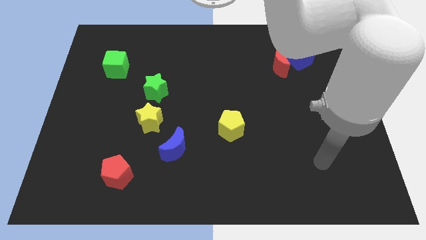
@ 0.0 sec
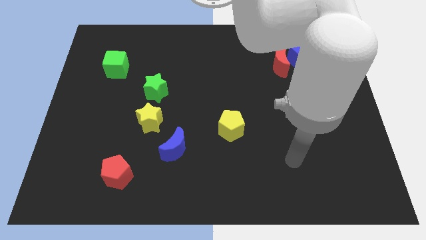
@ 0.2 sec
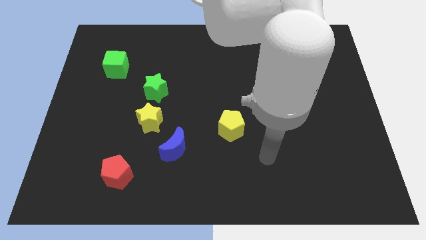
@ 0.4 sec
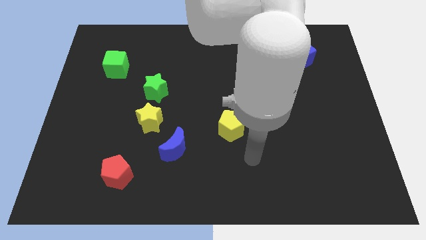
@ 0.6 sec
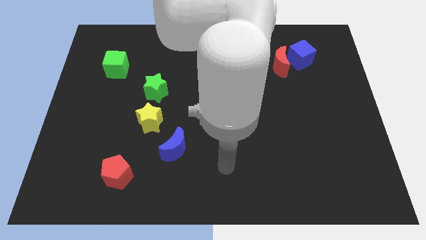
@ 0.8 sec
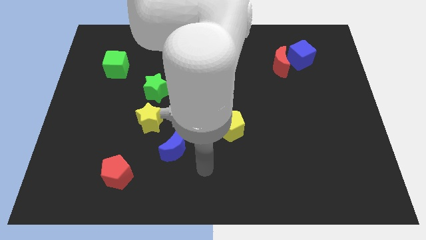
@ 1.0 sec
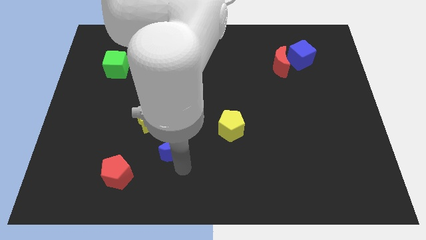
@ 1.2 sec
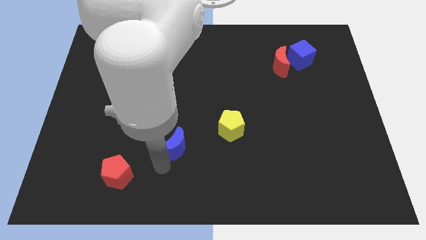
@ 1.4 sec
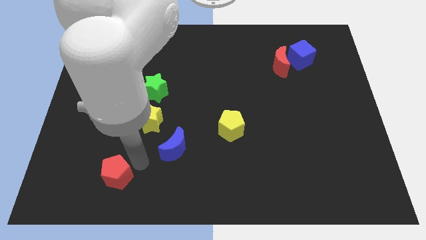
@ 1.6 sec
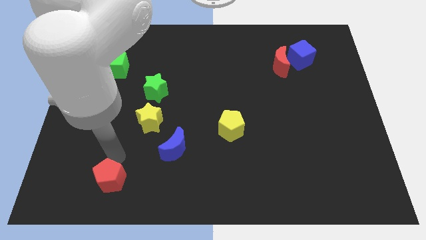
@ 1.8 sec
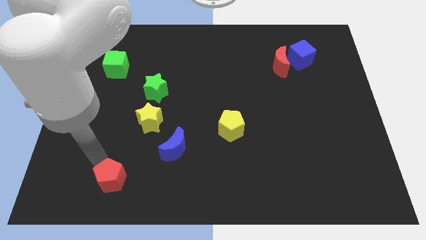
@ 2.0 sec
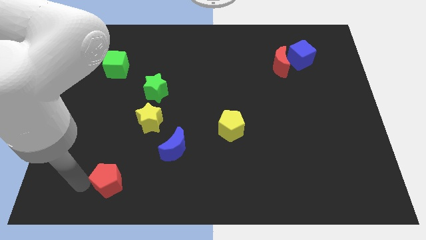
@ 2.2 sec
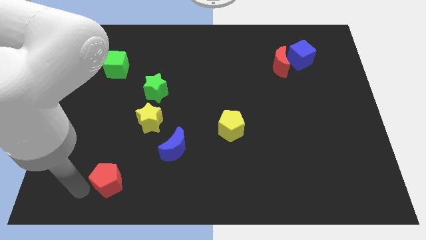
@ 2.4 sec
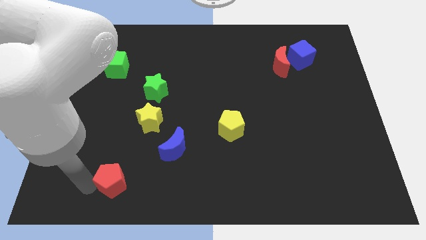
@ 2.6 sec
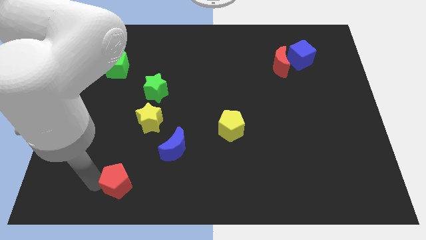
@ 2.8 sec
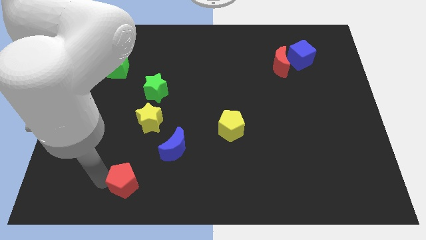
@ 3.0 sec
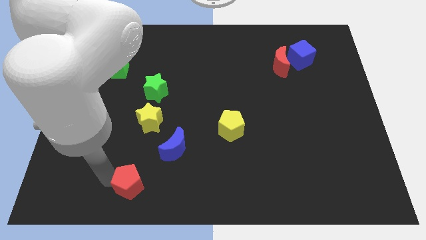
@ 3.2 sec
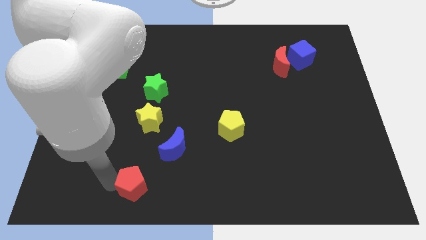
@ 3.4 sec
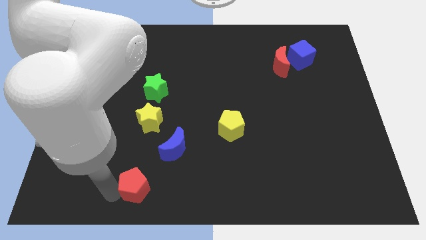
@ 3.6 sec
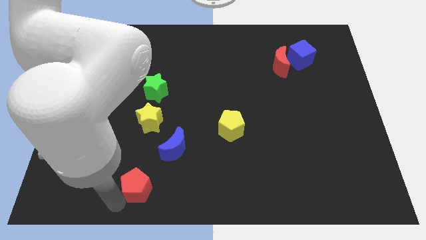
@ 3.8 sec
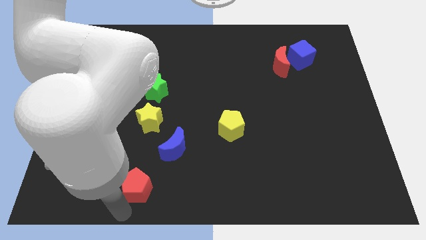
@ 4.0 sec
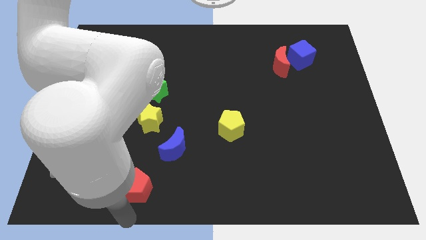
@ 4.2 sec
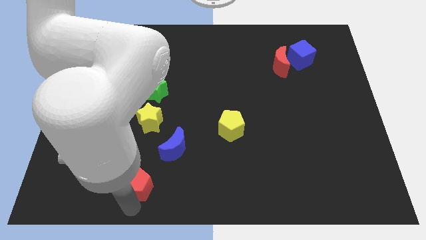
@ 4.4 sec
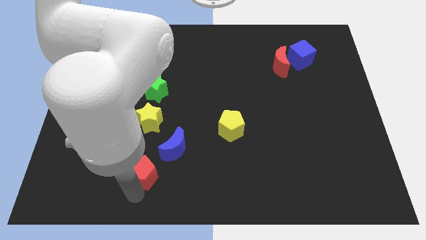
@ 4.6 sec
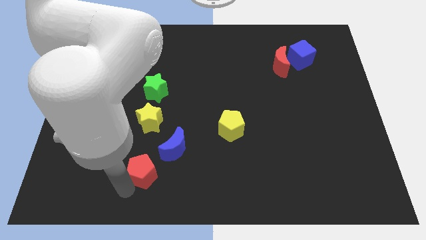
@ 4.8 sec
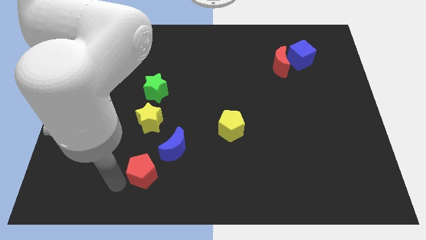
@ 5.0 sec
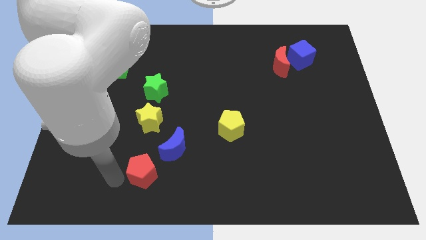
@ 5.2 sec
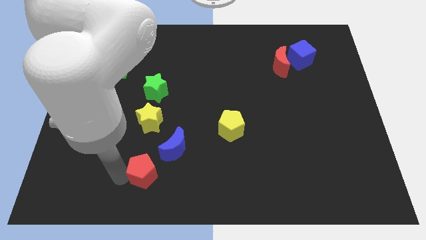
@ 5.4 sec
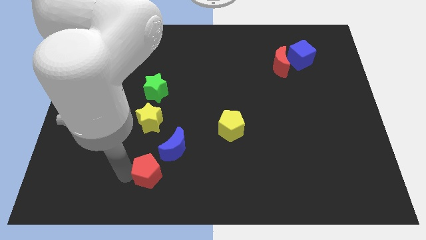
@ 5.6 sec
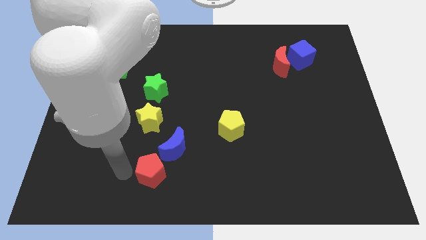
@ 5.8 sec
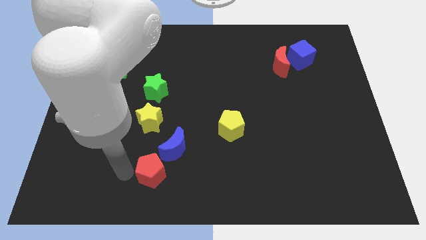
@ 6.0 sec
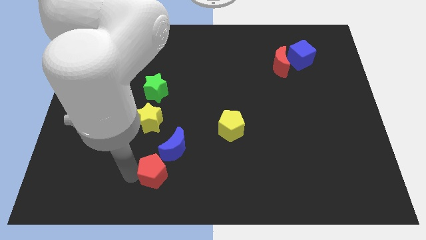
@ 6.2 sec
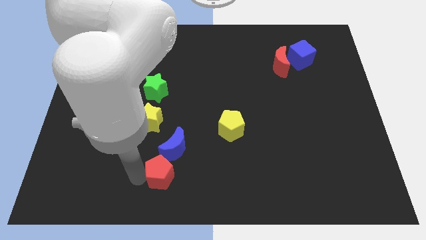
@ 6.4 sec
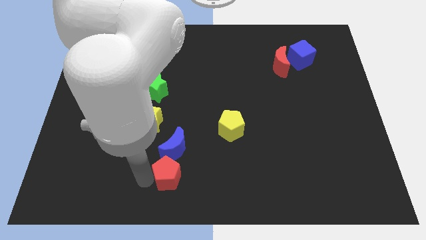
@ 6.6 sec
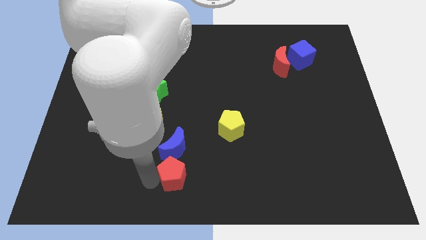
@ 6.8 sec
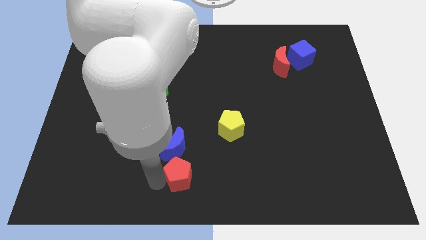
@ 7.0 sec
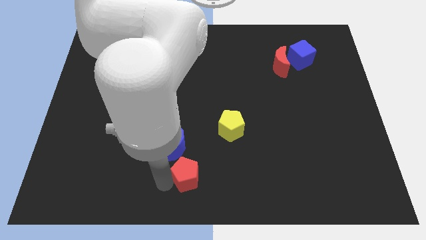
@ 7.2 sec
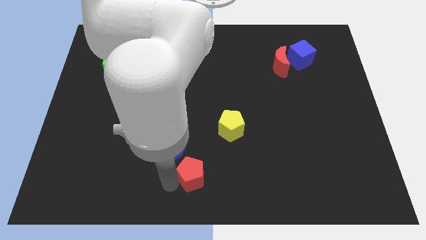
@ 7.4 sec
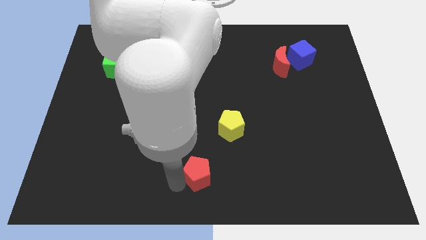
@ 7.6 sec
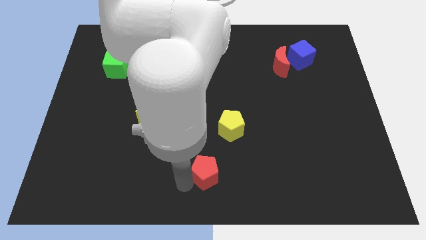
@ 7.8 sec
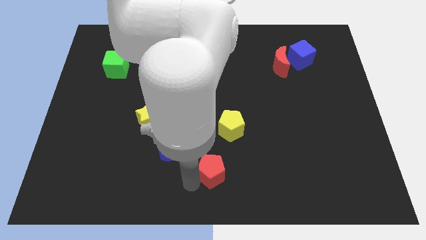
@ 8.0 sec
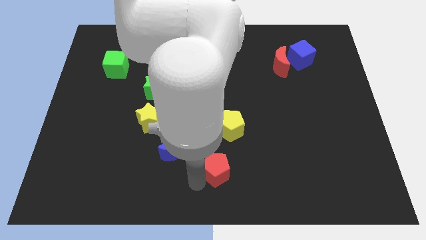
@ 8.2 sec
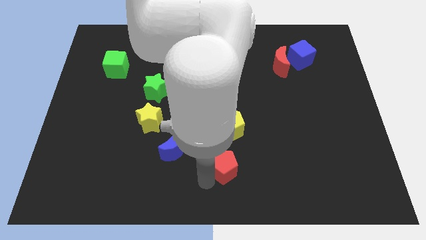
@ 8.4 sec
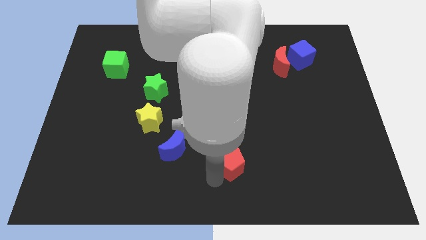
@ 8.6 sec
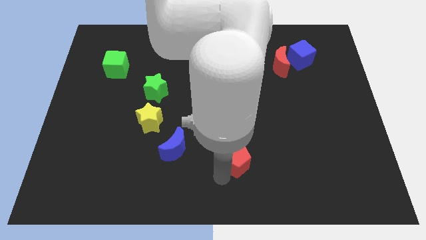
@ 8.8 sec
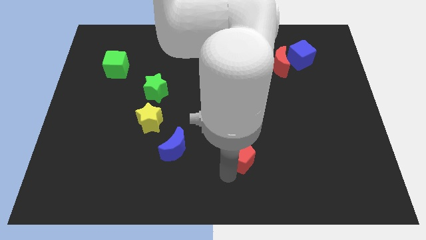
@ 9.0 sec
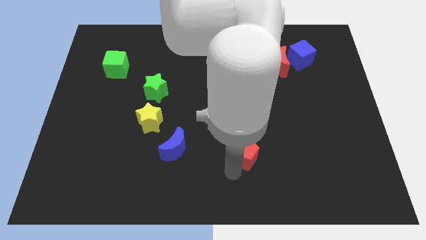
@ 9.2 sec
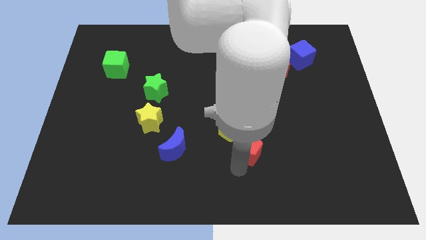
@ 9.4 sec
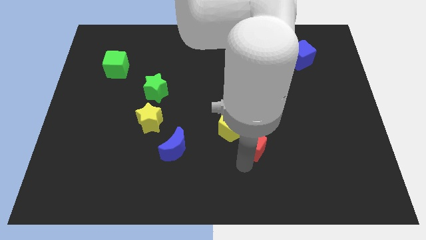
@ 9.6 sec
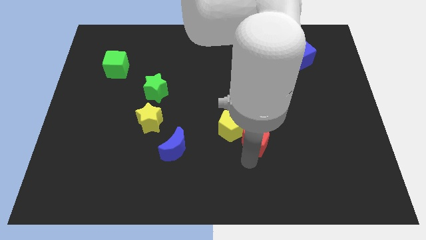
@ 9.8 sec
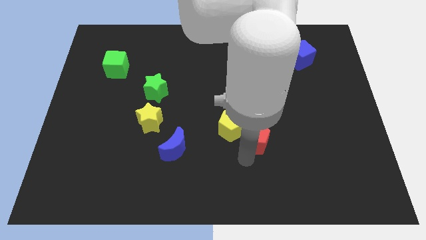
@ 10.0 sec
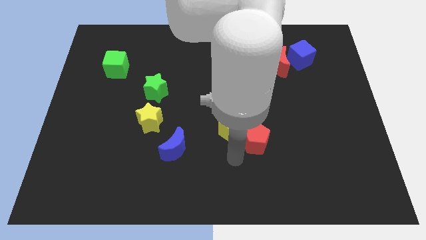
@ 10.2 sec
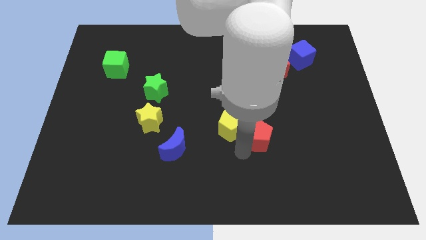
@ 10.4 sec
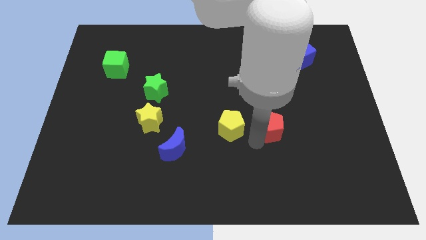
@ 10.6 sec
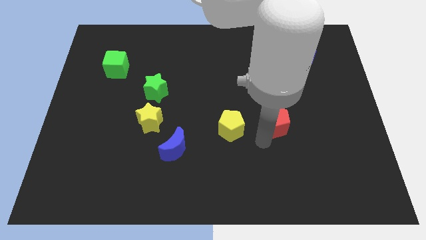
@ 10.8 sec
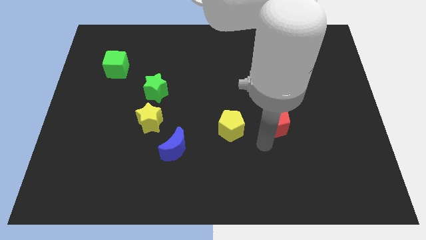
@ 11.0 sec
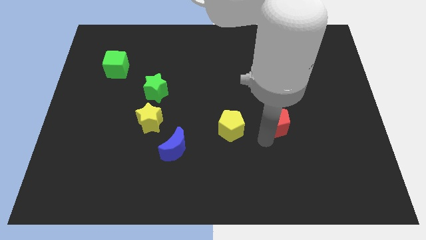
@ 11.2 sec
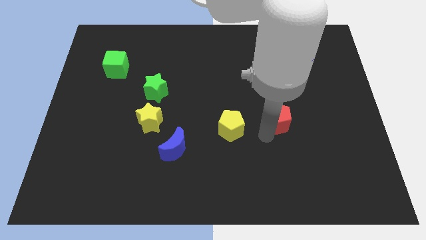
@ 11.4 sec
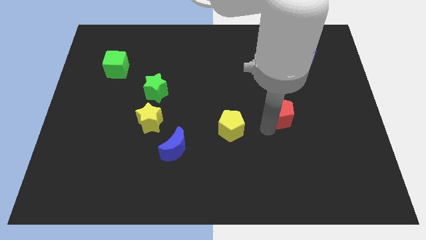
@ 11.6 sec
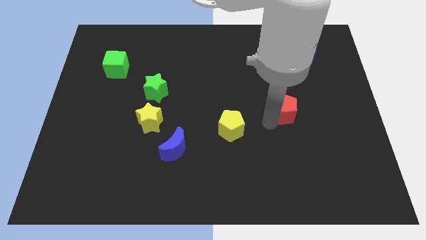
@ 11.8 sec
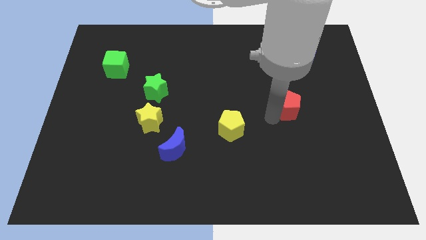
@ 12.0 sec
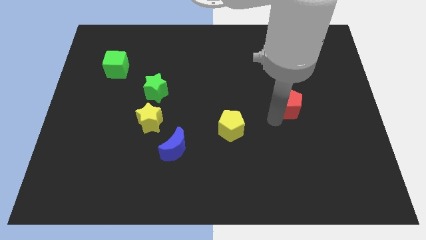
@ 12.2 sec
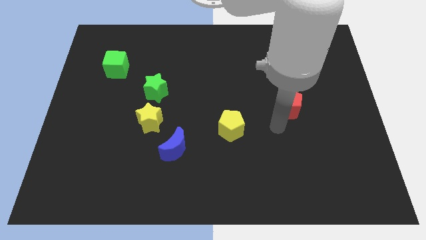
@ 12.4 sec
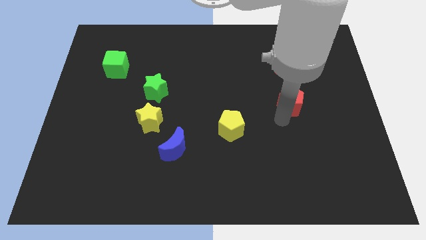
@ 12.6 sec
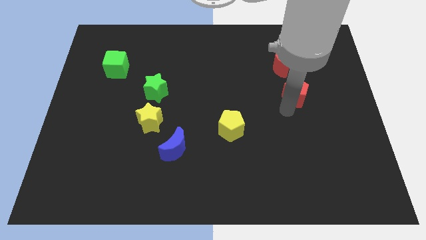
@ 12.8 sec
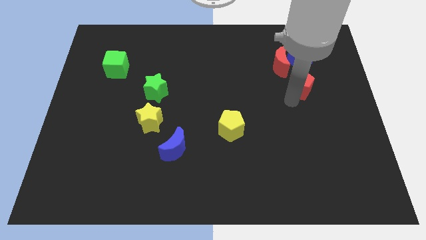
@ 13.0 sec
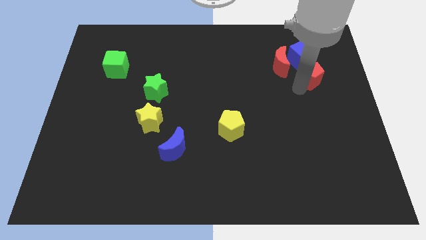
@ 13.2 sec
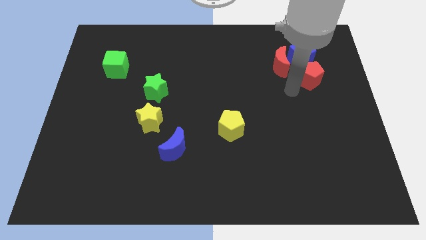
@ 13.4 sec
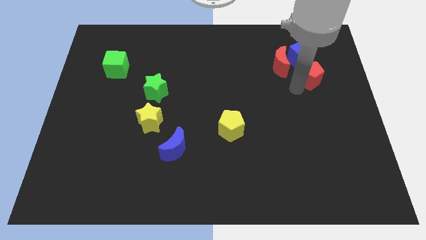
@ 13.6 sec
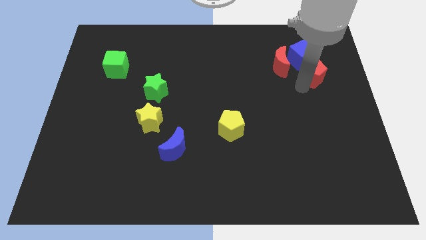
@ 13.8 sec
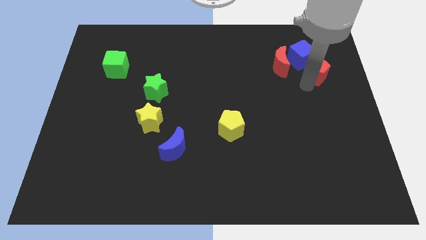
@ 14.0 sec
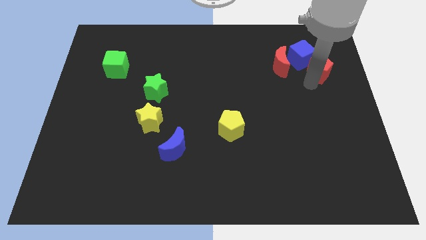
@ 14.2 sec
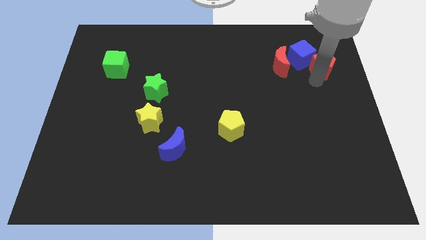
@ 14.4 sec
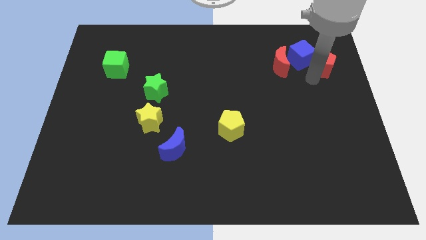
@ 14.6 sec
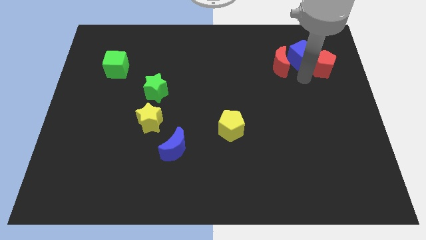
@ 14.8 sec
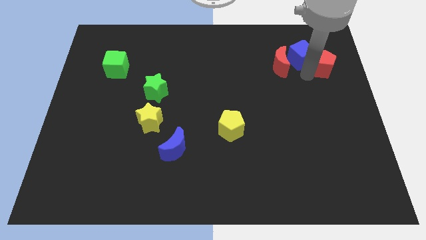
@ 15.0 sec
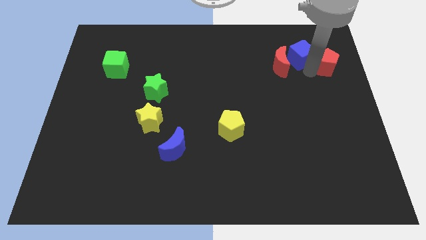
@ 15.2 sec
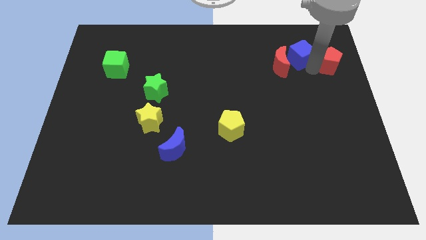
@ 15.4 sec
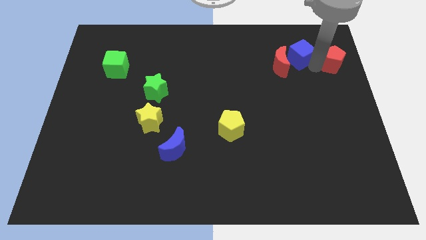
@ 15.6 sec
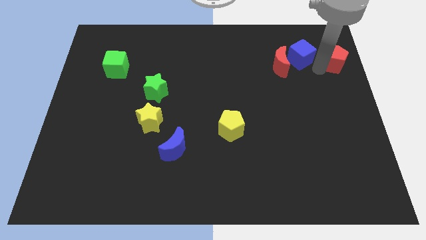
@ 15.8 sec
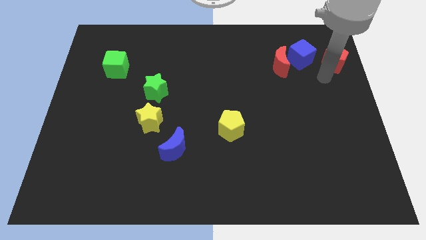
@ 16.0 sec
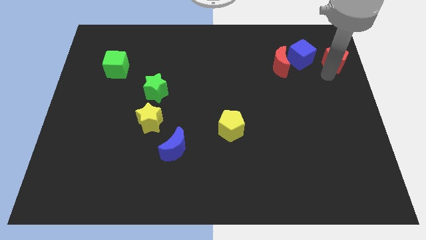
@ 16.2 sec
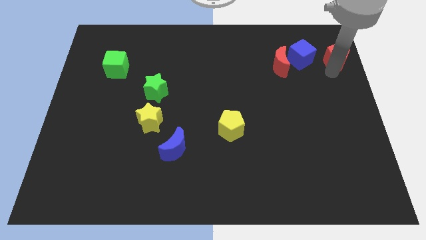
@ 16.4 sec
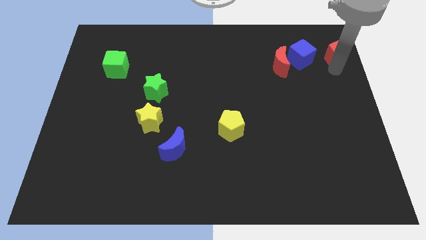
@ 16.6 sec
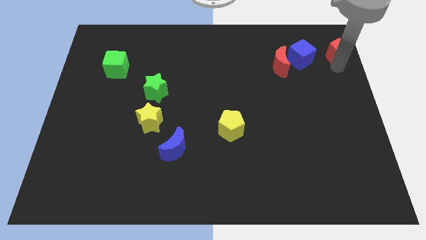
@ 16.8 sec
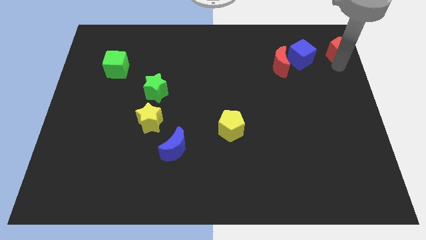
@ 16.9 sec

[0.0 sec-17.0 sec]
put the red pentagon to the upper right corner
